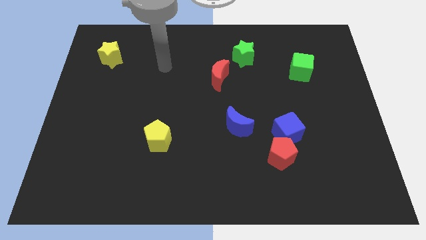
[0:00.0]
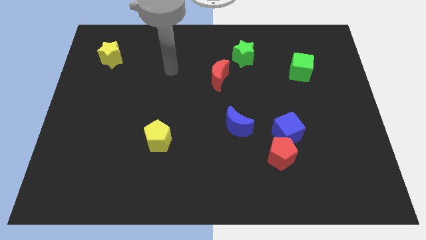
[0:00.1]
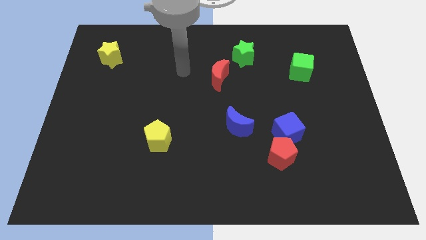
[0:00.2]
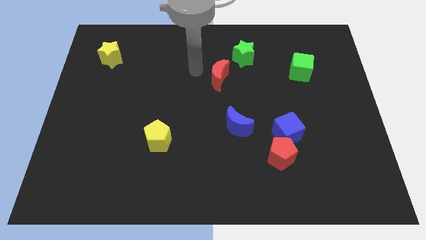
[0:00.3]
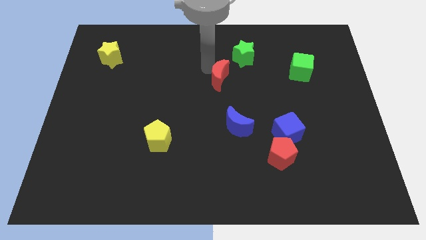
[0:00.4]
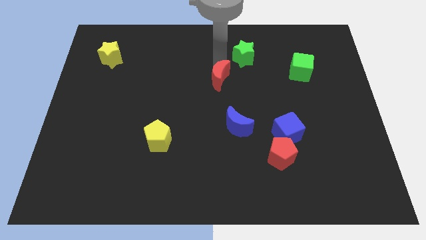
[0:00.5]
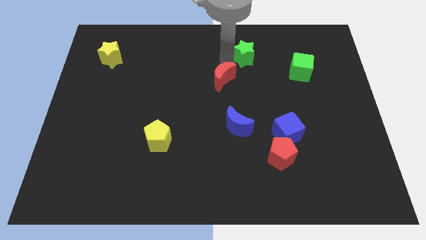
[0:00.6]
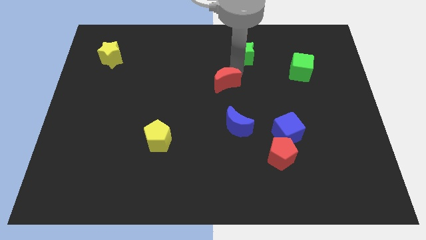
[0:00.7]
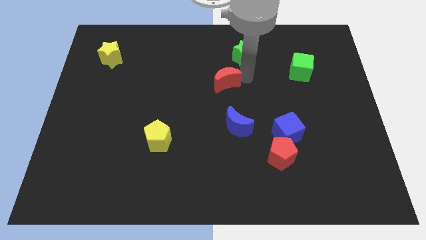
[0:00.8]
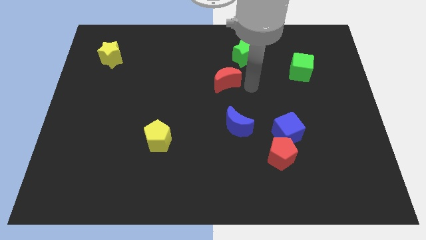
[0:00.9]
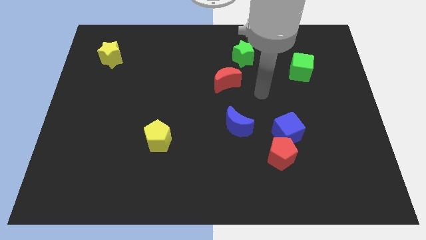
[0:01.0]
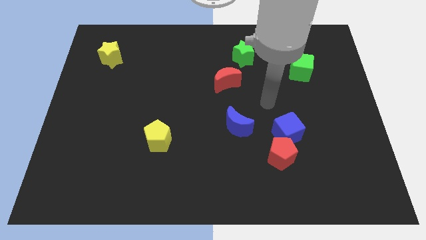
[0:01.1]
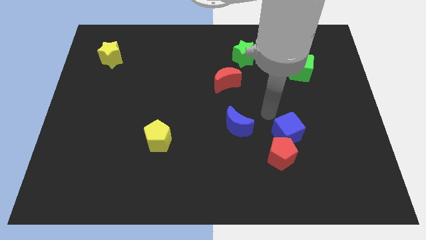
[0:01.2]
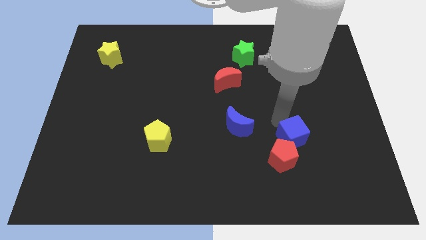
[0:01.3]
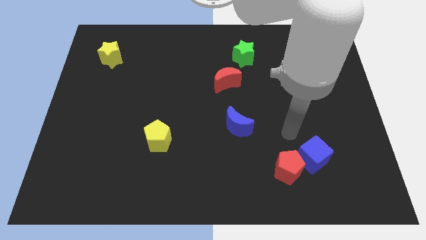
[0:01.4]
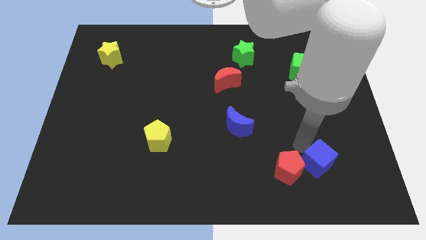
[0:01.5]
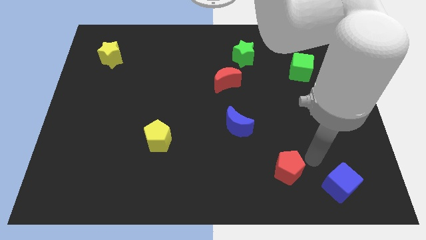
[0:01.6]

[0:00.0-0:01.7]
separate the red pentagon from the blue cube

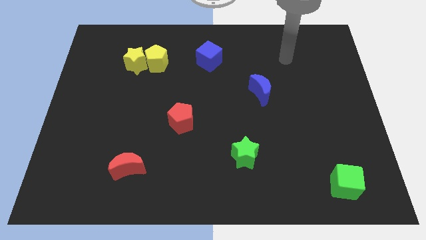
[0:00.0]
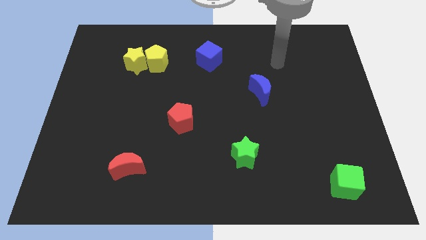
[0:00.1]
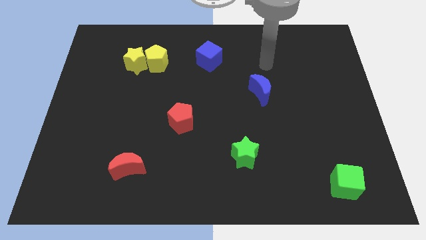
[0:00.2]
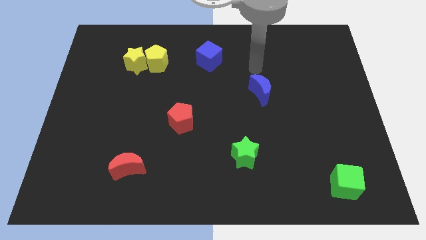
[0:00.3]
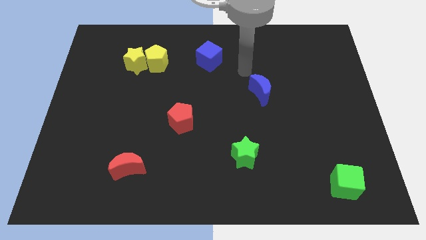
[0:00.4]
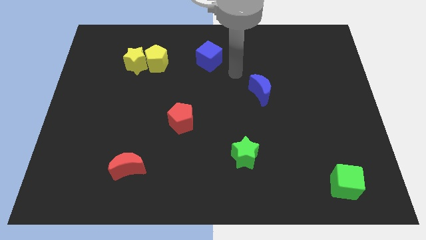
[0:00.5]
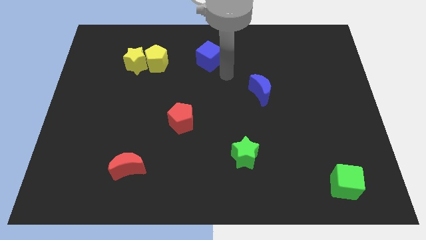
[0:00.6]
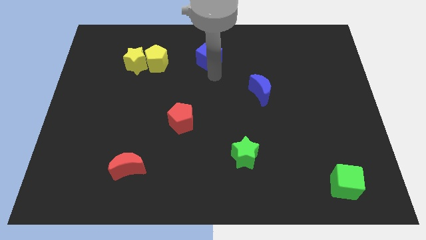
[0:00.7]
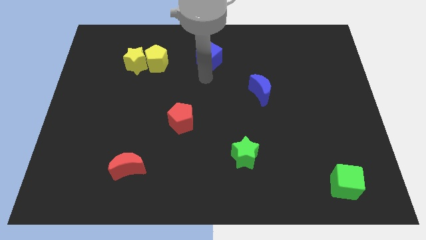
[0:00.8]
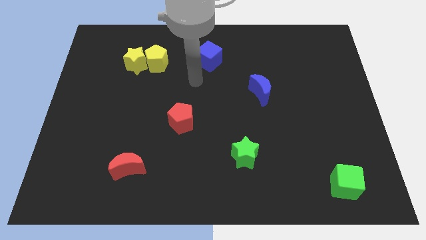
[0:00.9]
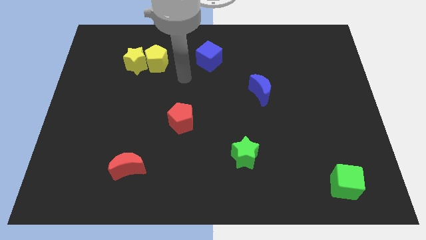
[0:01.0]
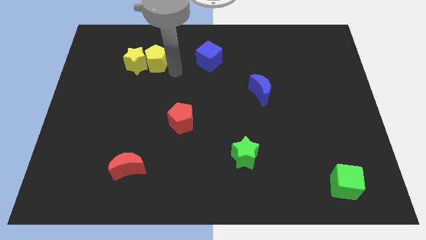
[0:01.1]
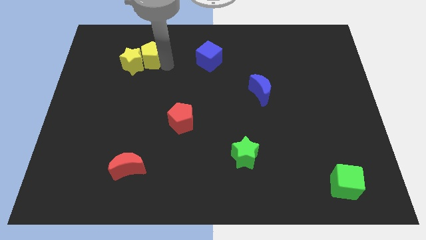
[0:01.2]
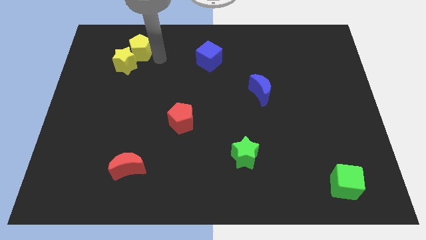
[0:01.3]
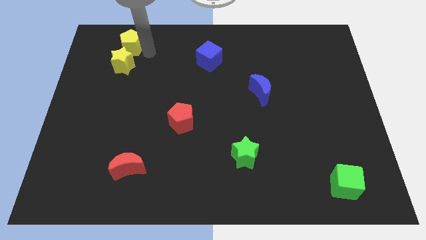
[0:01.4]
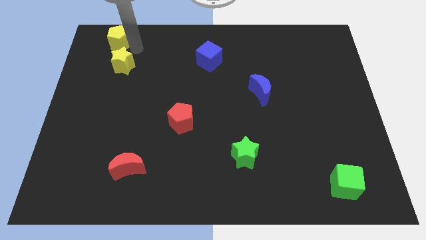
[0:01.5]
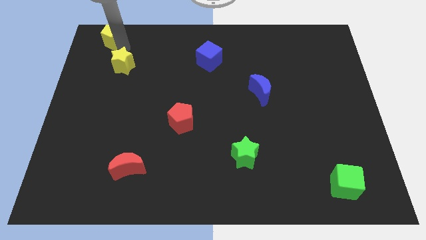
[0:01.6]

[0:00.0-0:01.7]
separate the yellow star from the yellow pentagon

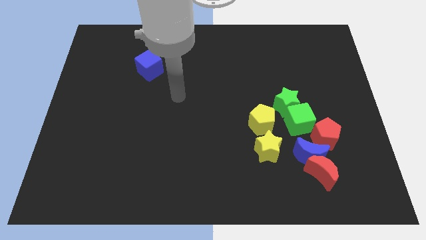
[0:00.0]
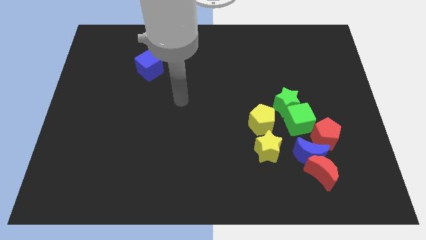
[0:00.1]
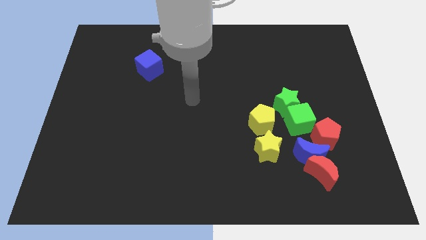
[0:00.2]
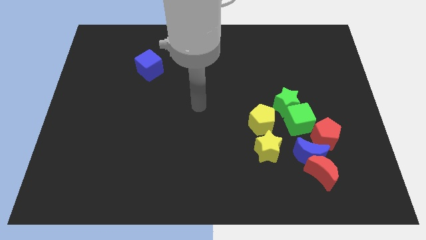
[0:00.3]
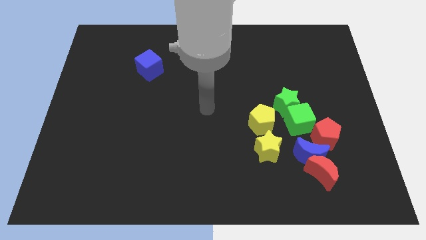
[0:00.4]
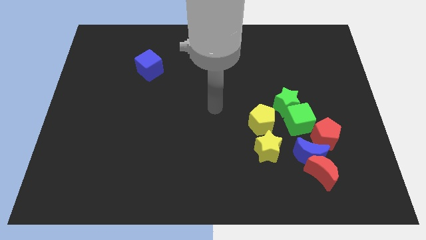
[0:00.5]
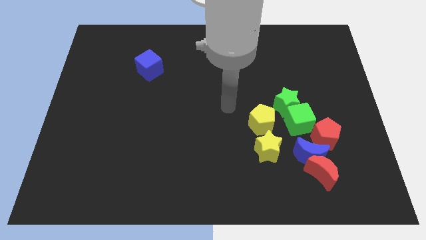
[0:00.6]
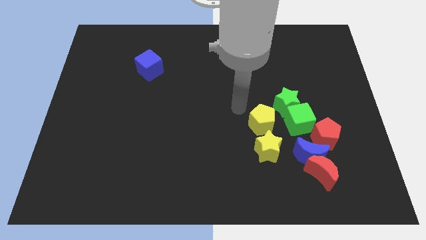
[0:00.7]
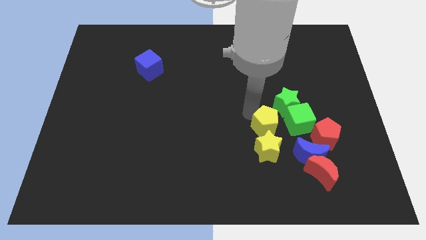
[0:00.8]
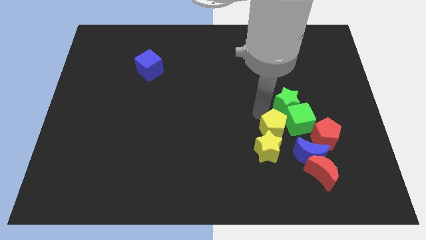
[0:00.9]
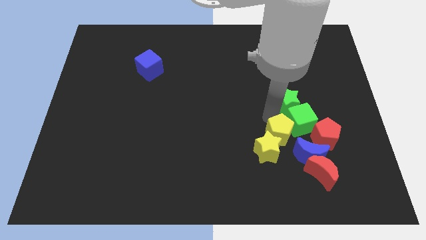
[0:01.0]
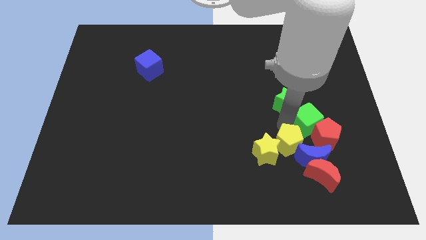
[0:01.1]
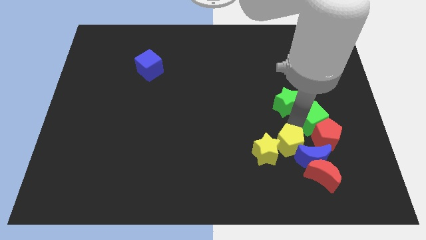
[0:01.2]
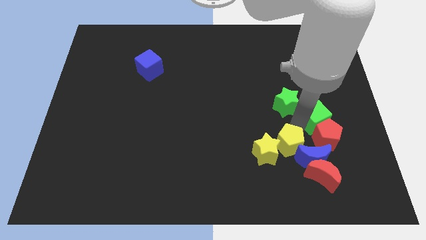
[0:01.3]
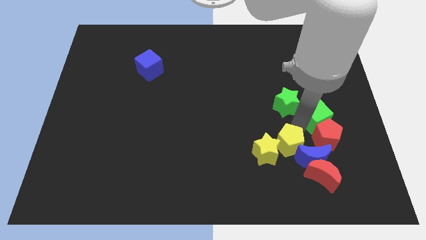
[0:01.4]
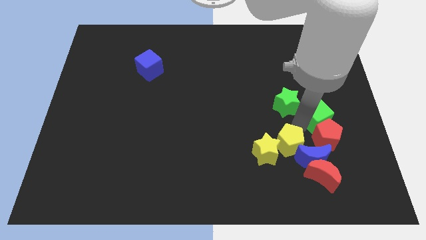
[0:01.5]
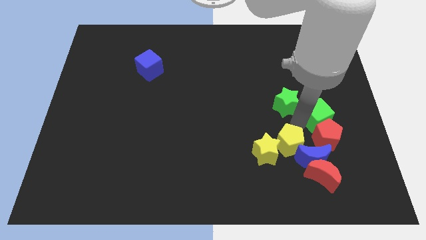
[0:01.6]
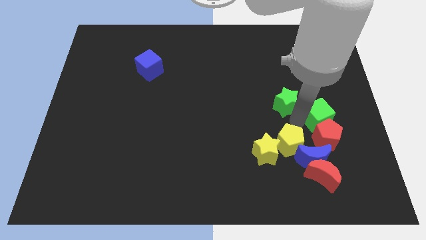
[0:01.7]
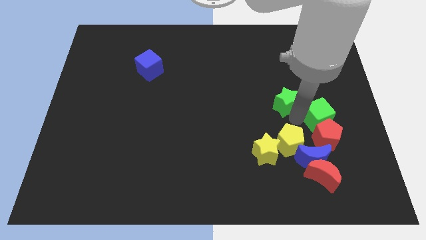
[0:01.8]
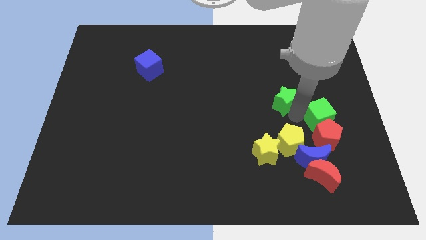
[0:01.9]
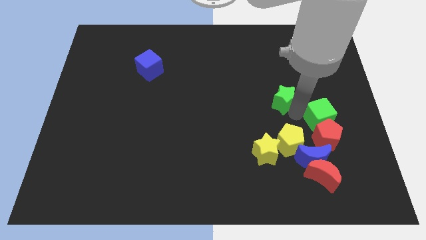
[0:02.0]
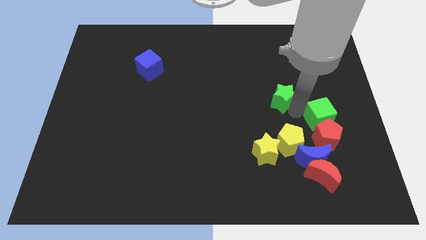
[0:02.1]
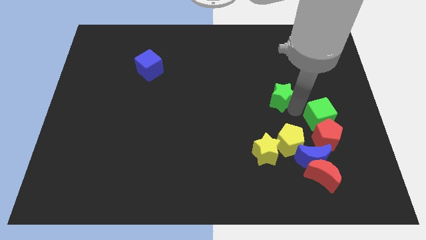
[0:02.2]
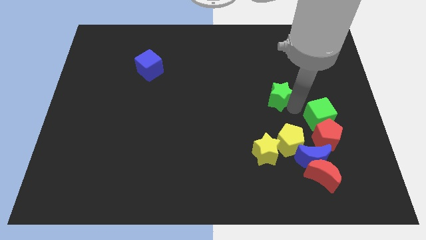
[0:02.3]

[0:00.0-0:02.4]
move the green star away from the green cube and yellow pentagon

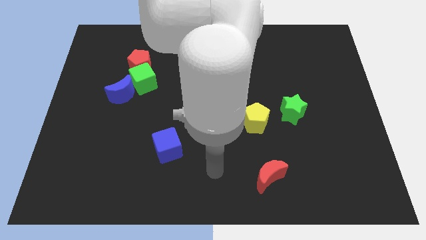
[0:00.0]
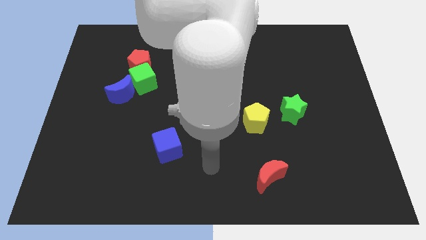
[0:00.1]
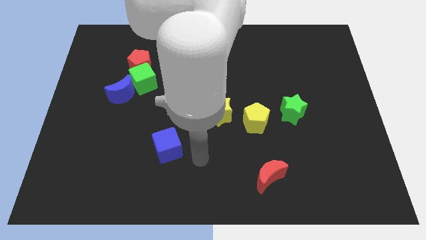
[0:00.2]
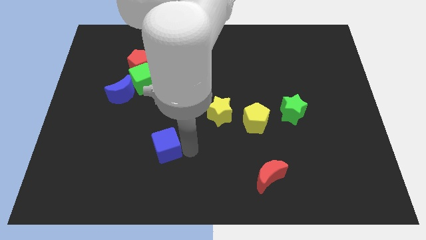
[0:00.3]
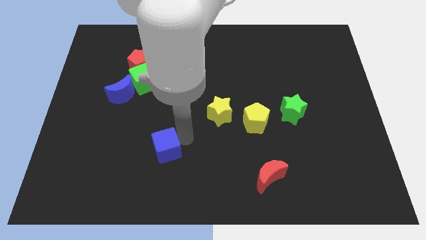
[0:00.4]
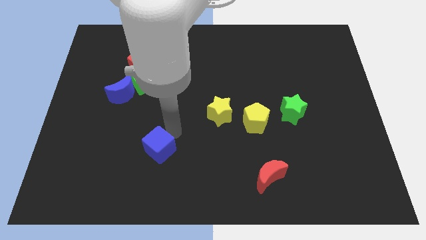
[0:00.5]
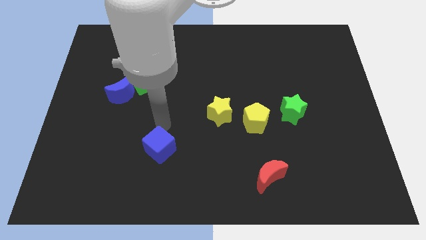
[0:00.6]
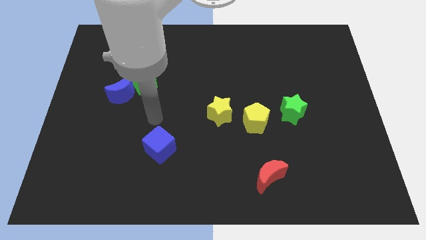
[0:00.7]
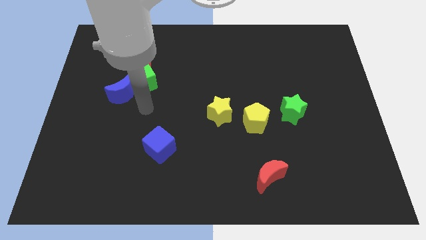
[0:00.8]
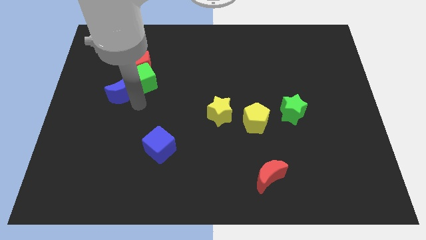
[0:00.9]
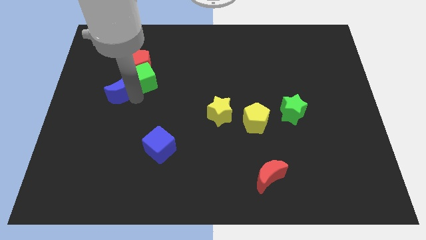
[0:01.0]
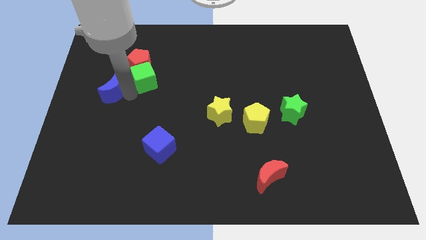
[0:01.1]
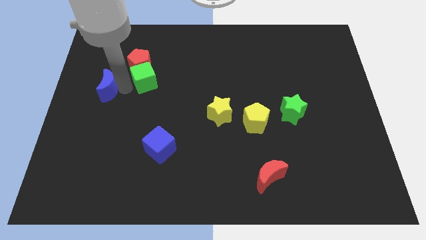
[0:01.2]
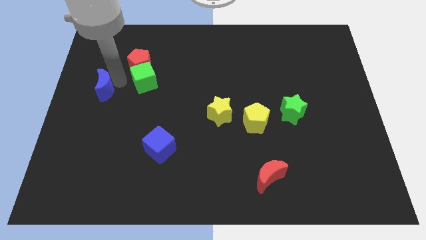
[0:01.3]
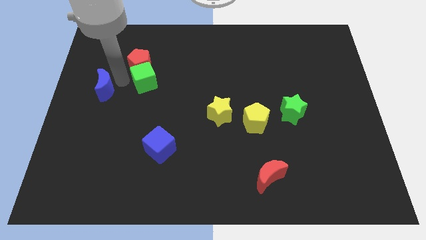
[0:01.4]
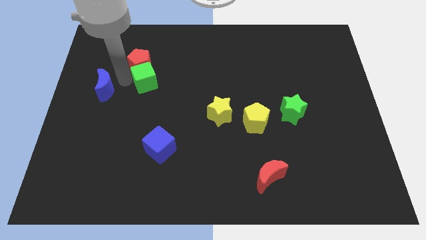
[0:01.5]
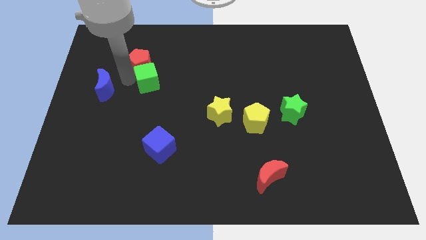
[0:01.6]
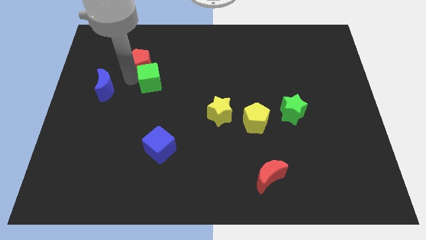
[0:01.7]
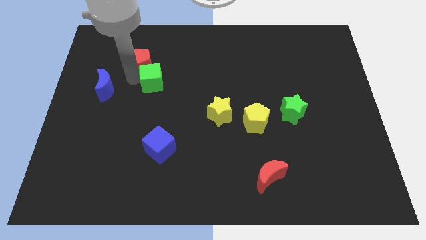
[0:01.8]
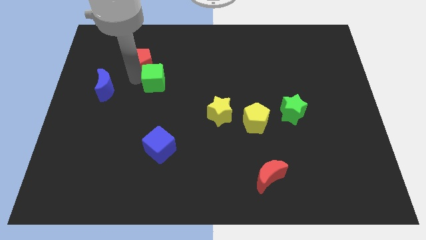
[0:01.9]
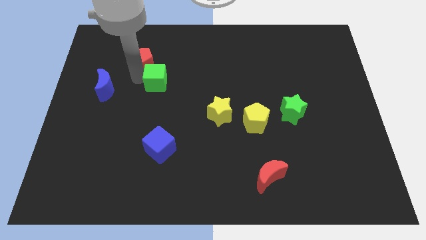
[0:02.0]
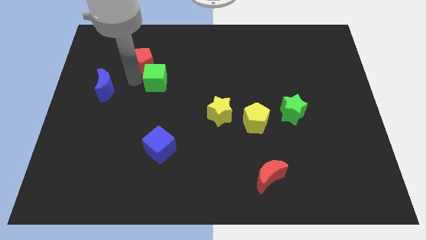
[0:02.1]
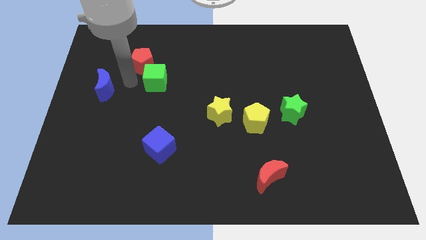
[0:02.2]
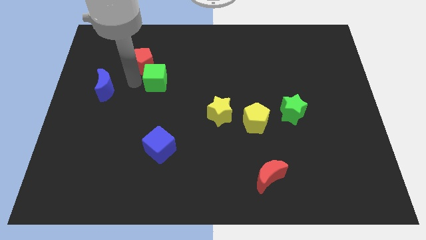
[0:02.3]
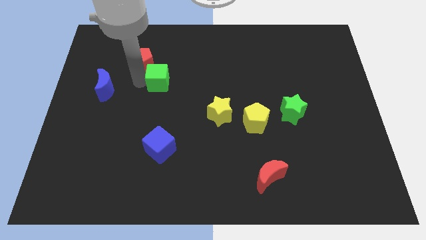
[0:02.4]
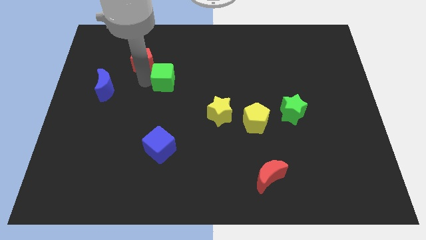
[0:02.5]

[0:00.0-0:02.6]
move the green cube away from the red pentagon and blue moon

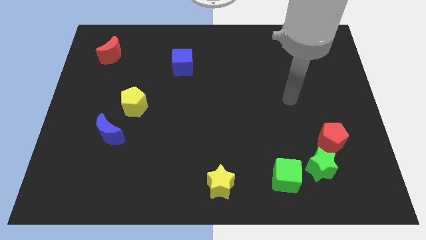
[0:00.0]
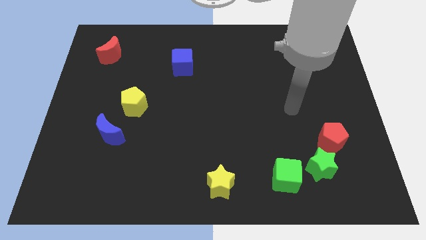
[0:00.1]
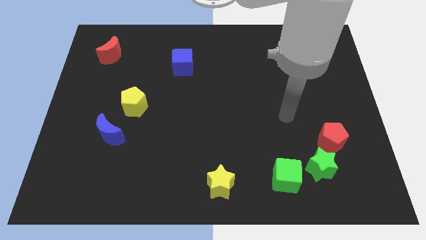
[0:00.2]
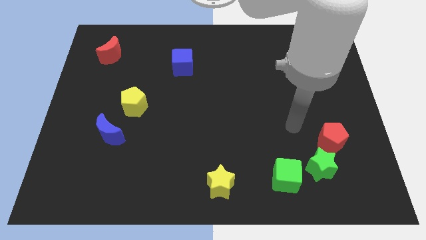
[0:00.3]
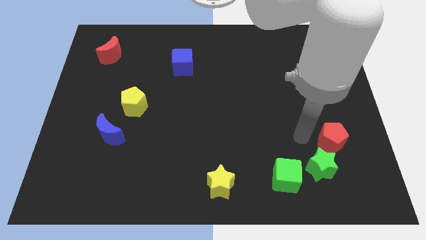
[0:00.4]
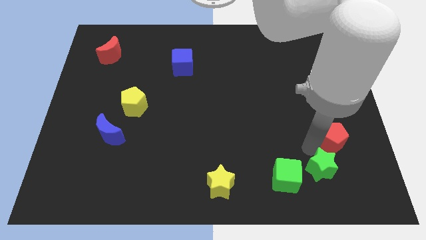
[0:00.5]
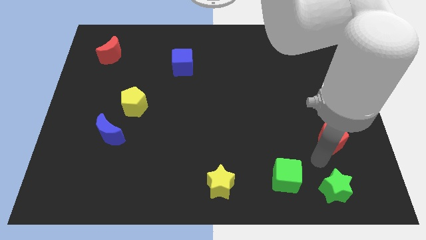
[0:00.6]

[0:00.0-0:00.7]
move the red pentagon away from the green star

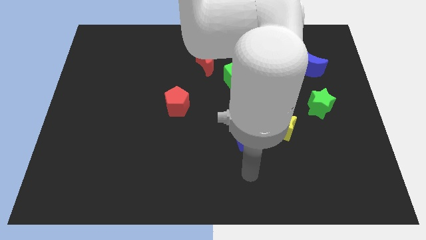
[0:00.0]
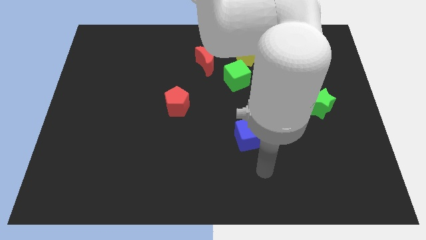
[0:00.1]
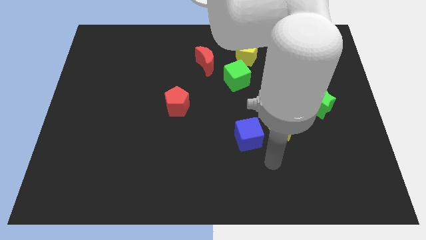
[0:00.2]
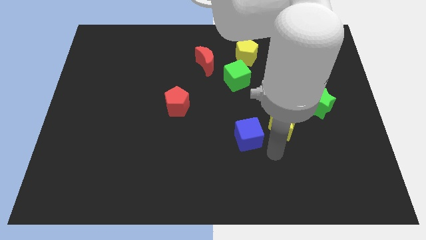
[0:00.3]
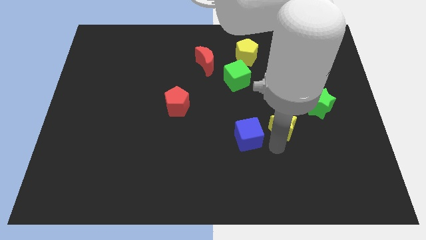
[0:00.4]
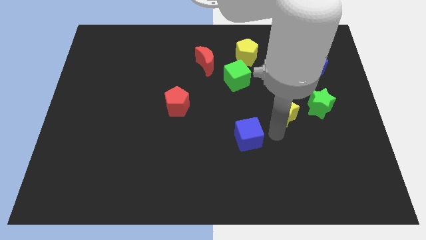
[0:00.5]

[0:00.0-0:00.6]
pull the blue cube apart from the yellow star
